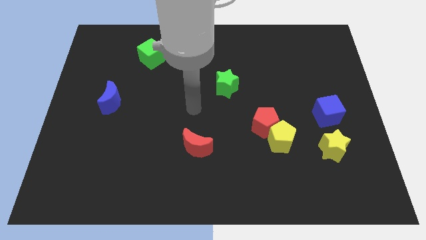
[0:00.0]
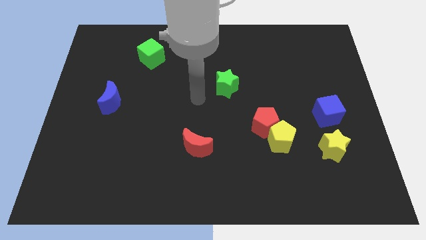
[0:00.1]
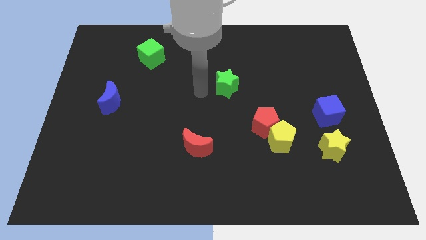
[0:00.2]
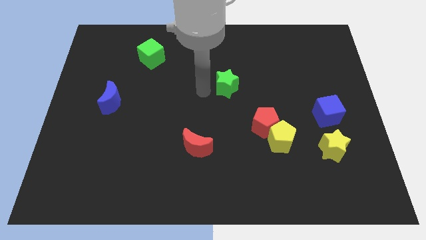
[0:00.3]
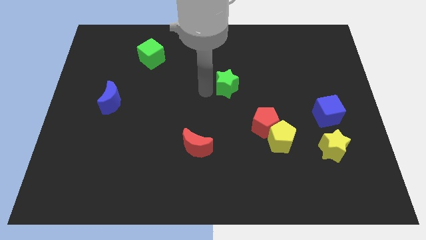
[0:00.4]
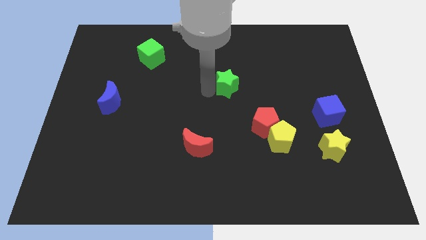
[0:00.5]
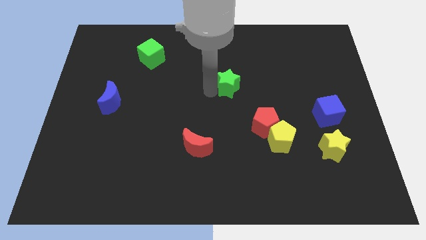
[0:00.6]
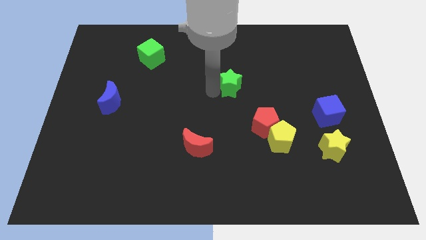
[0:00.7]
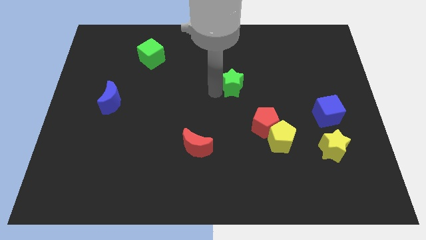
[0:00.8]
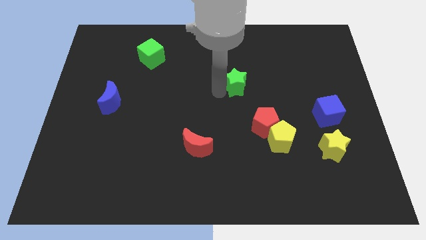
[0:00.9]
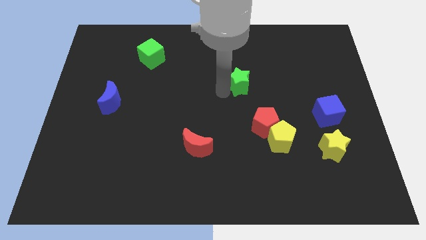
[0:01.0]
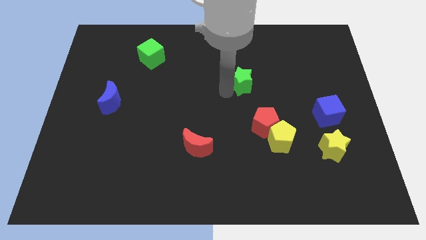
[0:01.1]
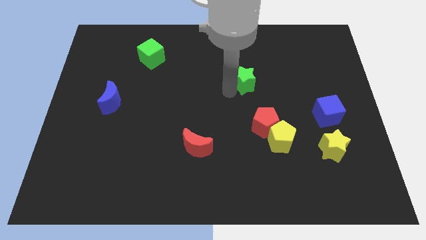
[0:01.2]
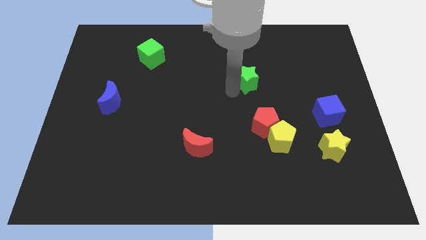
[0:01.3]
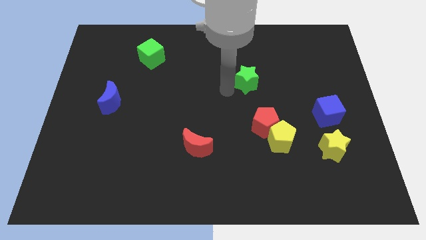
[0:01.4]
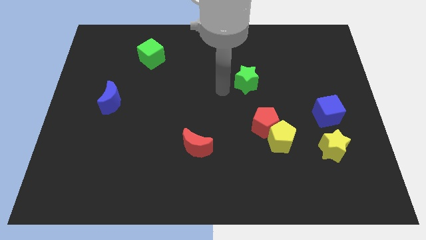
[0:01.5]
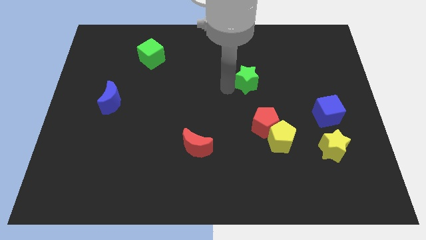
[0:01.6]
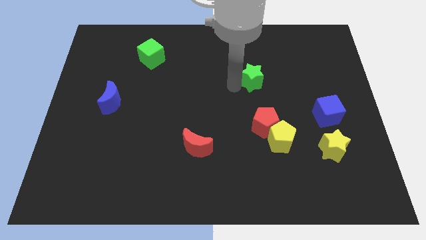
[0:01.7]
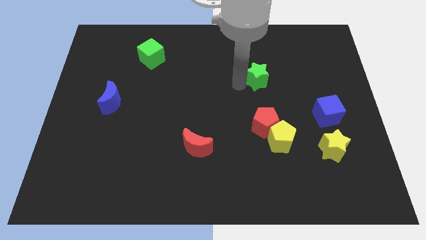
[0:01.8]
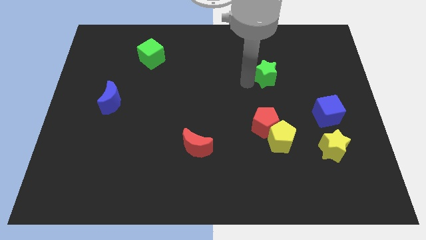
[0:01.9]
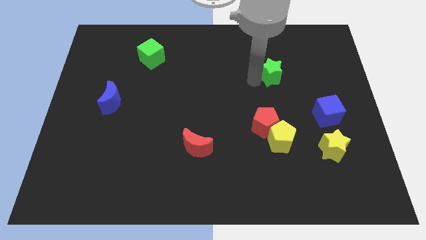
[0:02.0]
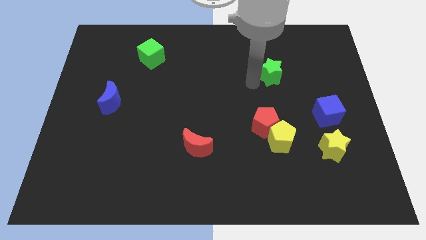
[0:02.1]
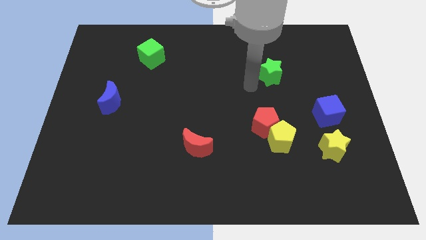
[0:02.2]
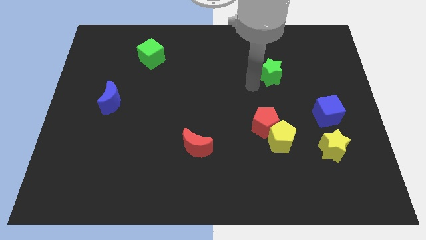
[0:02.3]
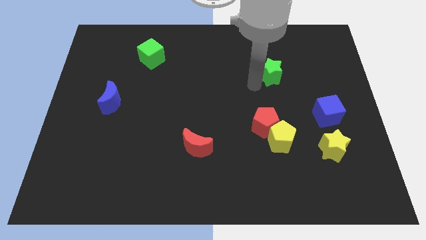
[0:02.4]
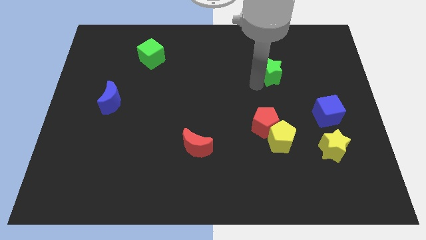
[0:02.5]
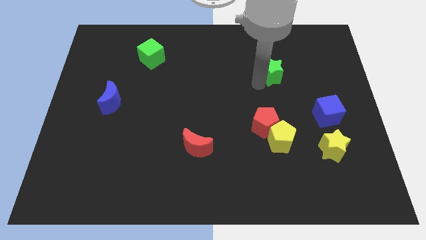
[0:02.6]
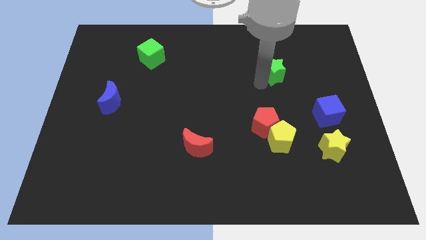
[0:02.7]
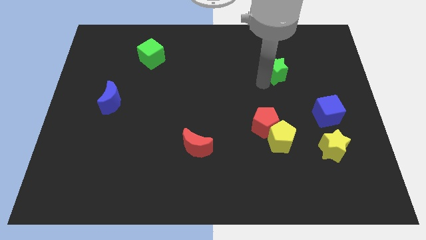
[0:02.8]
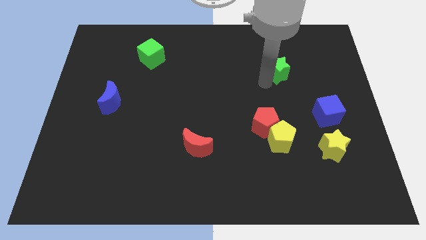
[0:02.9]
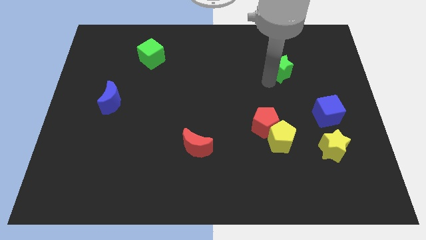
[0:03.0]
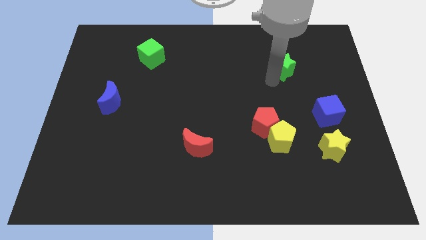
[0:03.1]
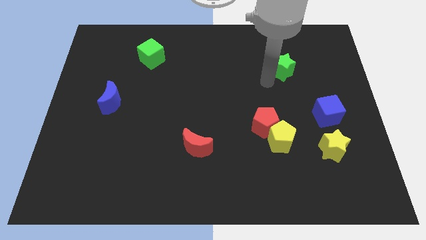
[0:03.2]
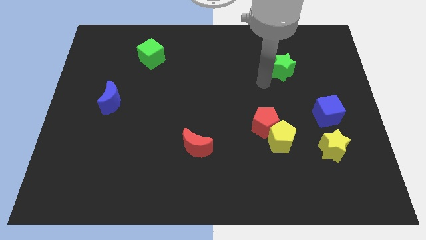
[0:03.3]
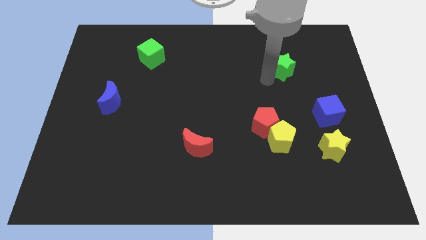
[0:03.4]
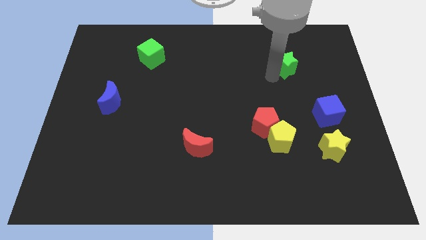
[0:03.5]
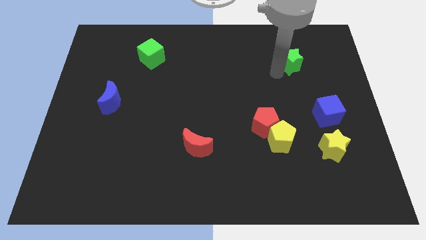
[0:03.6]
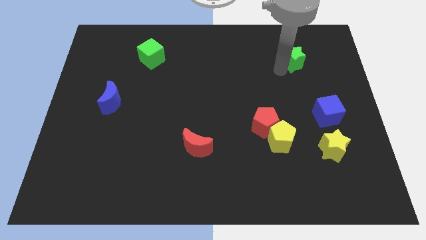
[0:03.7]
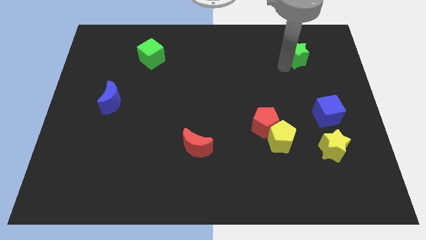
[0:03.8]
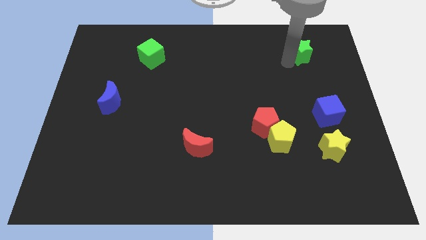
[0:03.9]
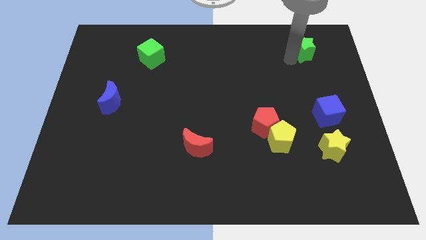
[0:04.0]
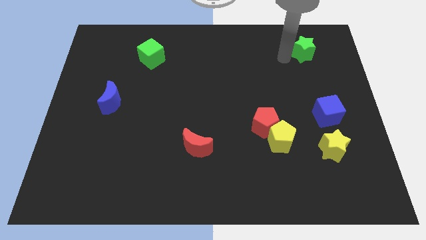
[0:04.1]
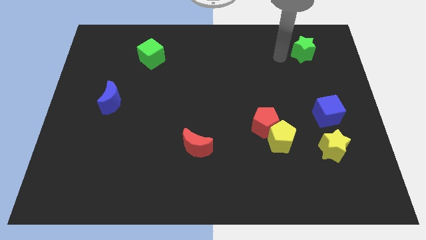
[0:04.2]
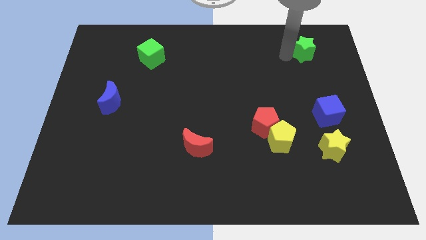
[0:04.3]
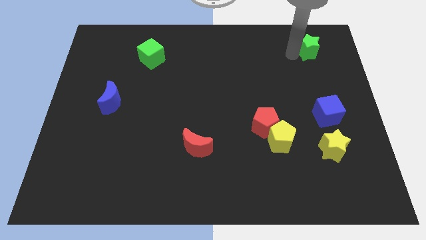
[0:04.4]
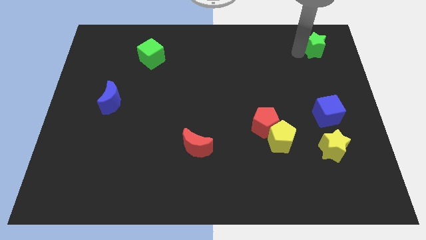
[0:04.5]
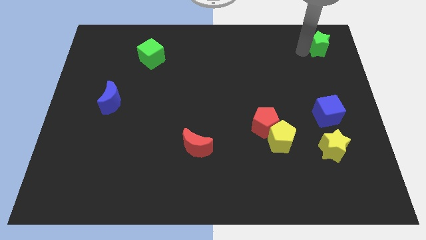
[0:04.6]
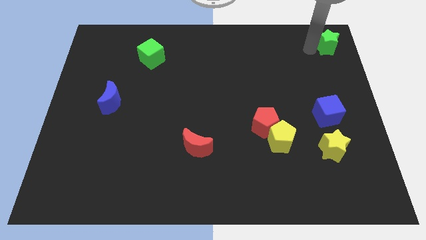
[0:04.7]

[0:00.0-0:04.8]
move the green star to the top right

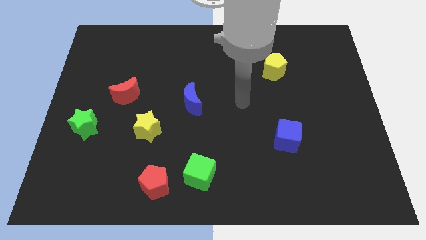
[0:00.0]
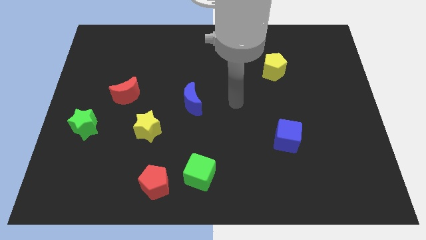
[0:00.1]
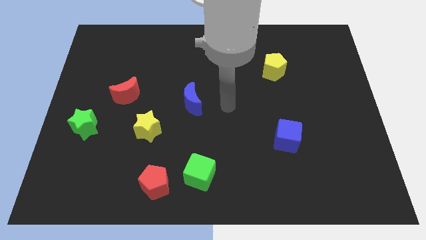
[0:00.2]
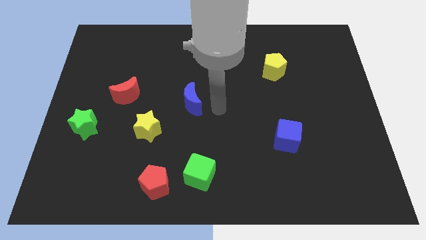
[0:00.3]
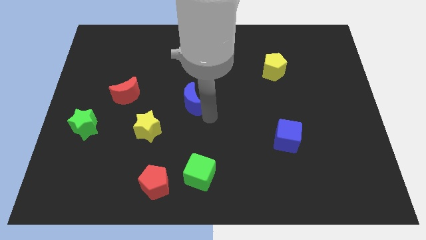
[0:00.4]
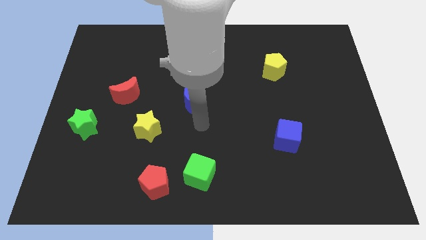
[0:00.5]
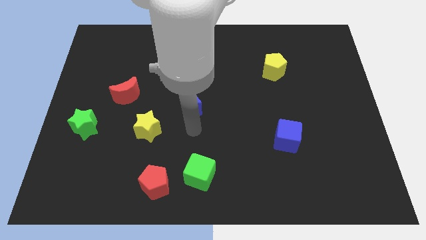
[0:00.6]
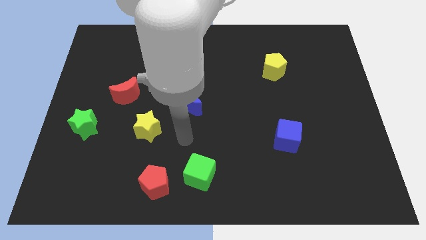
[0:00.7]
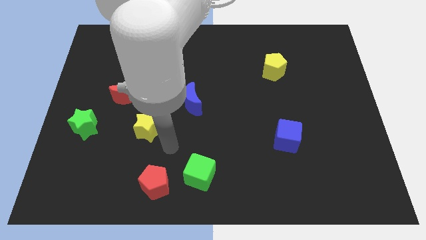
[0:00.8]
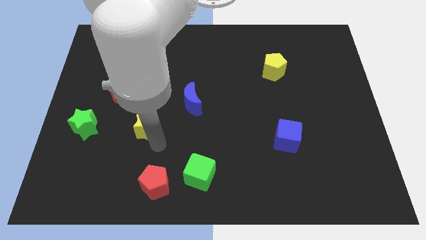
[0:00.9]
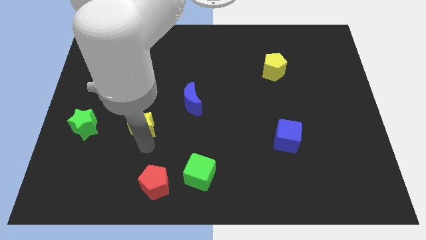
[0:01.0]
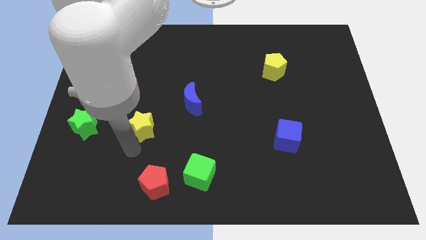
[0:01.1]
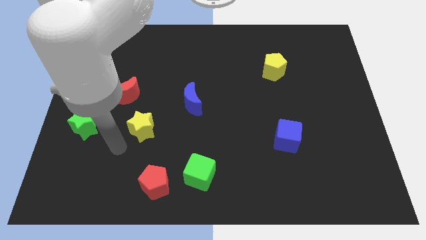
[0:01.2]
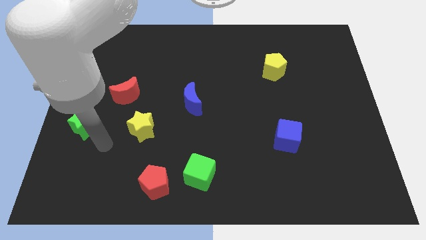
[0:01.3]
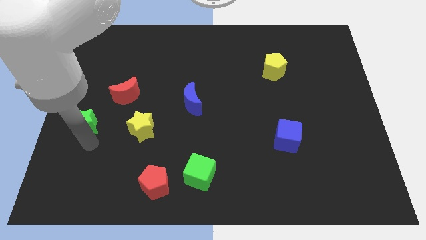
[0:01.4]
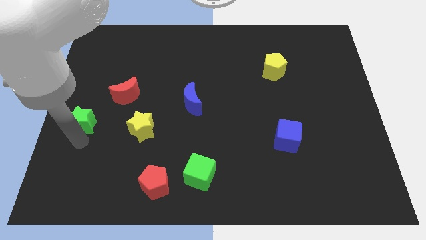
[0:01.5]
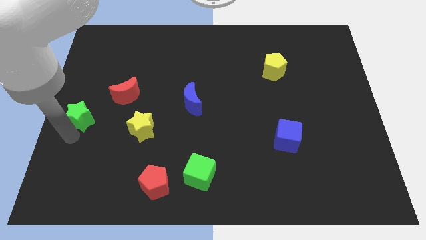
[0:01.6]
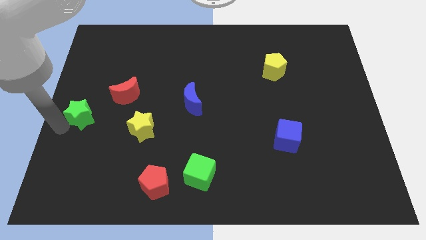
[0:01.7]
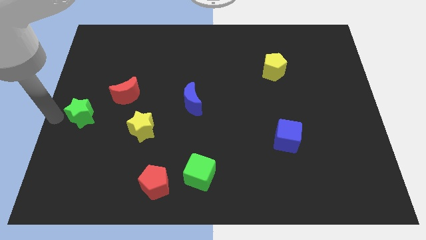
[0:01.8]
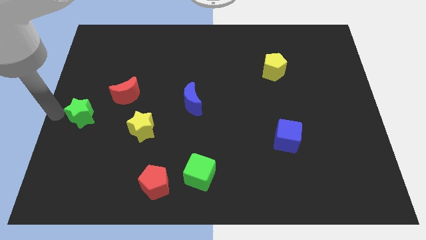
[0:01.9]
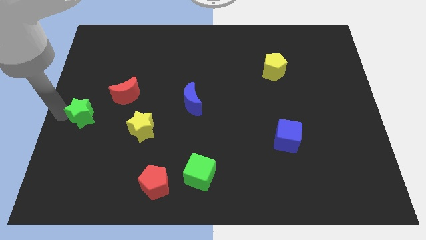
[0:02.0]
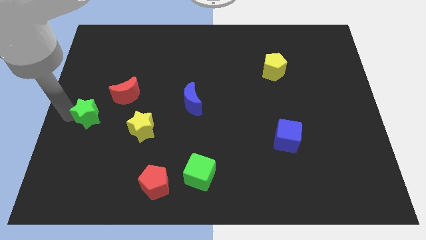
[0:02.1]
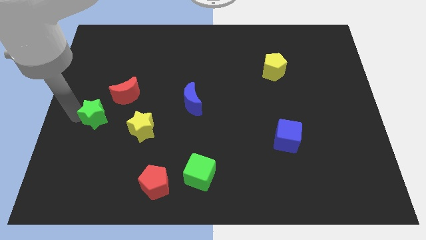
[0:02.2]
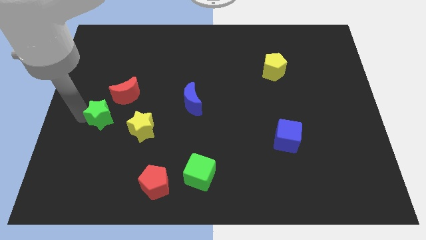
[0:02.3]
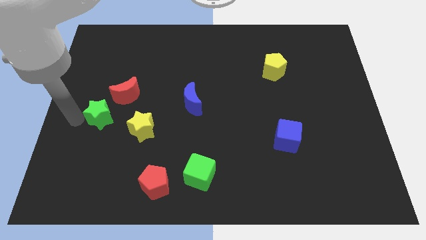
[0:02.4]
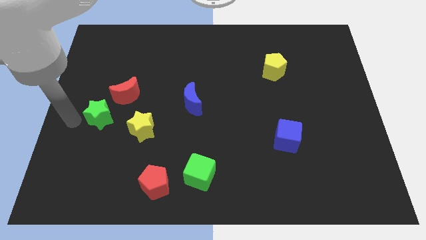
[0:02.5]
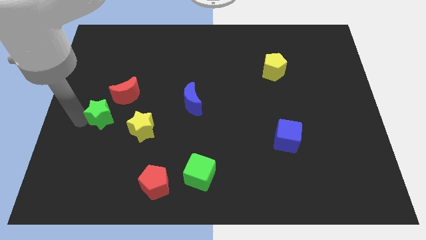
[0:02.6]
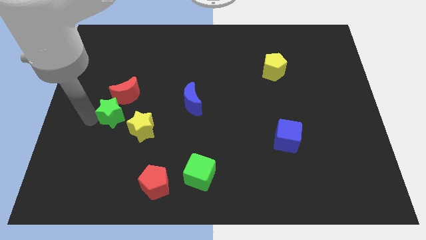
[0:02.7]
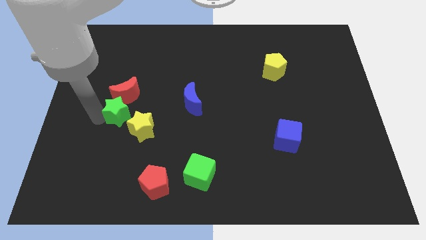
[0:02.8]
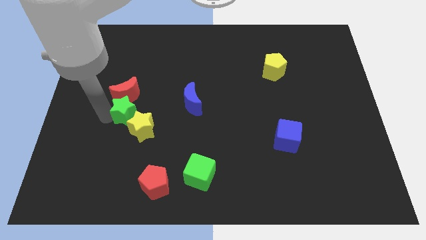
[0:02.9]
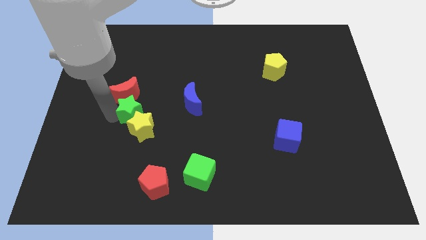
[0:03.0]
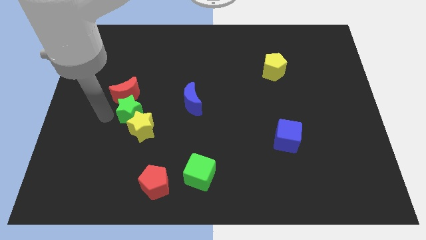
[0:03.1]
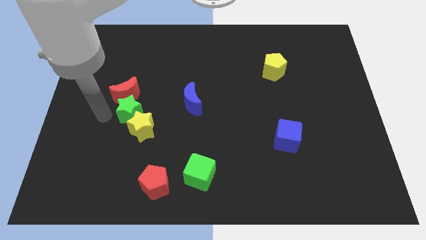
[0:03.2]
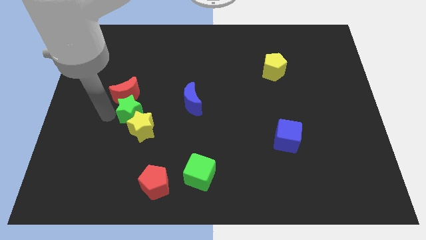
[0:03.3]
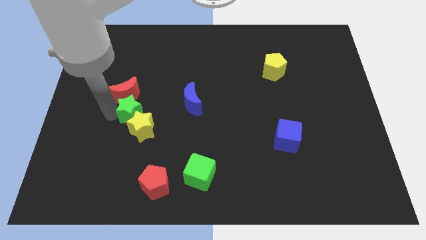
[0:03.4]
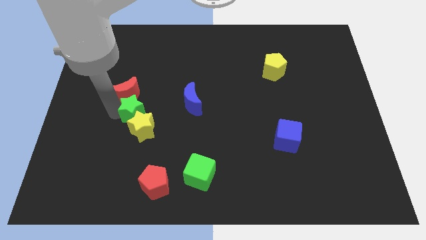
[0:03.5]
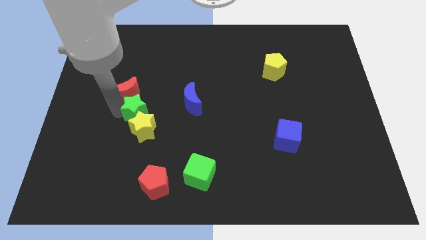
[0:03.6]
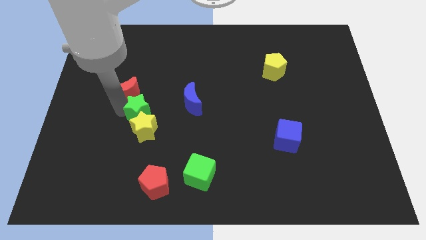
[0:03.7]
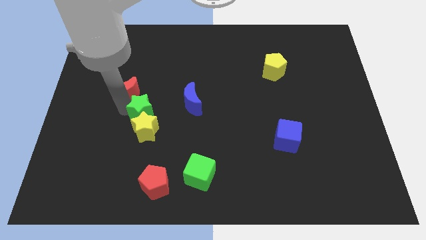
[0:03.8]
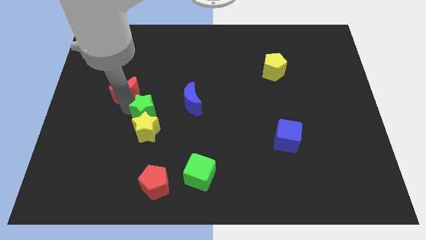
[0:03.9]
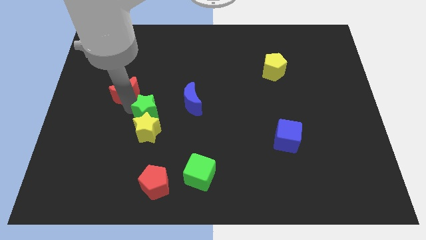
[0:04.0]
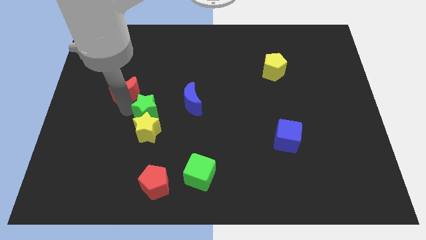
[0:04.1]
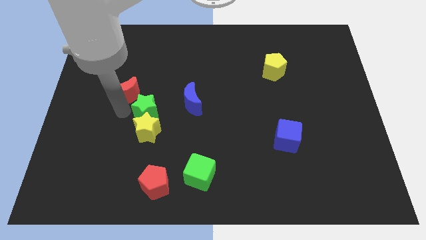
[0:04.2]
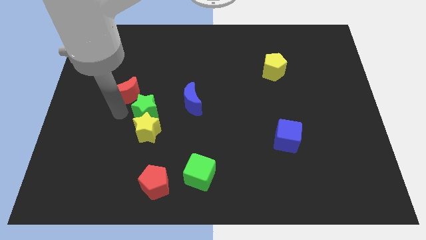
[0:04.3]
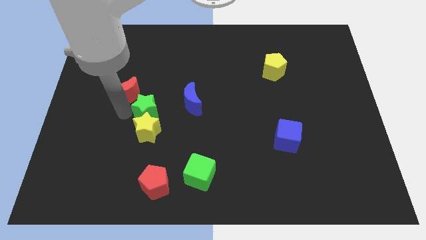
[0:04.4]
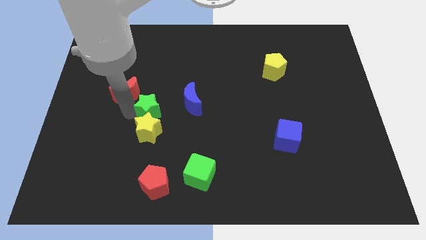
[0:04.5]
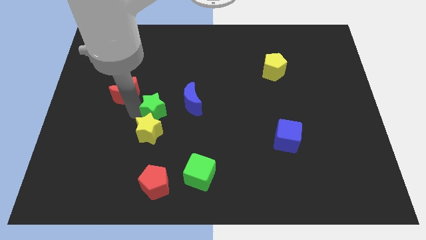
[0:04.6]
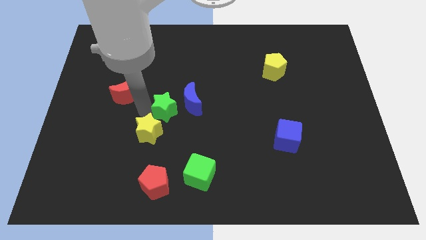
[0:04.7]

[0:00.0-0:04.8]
push the green star to the middle of the board
